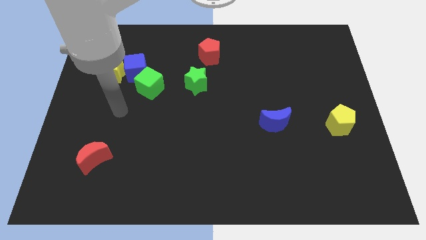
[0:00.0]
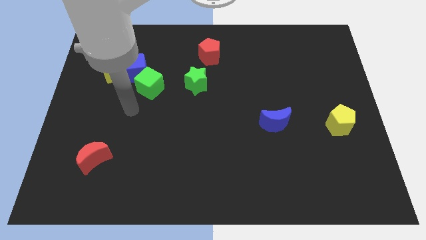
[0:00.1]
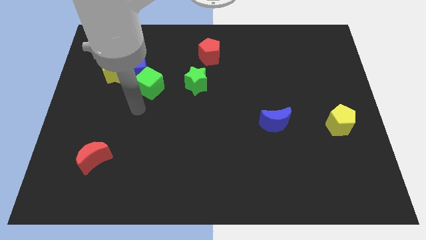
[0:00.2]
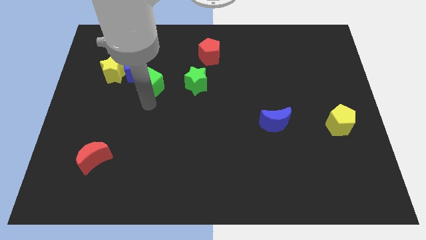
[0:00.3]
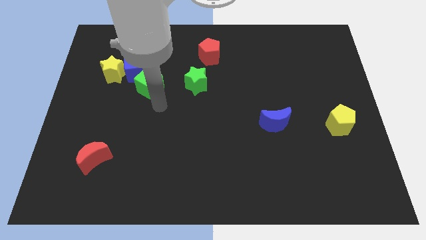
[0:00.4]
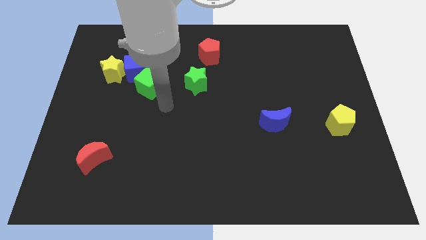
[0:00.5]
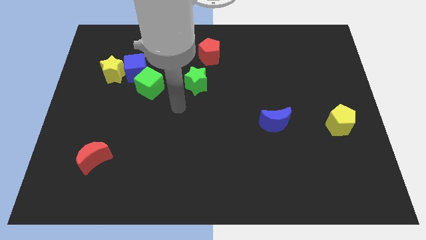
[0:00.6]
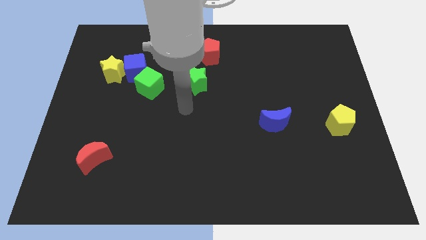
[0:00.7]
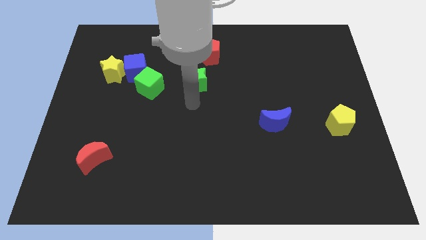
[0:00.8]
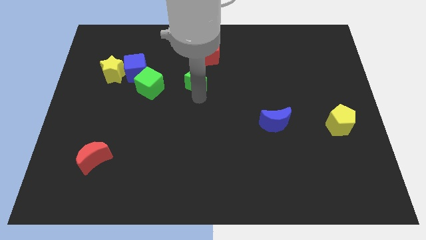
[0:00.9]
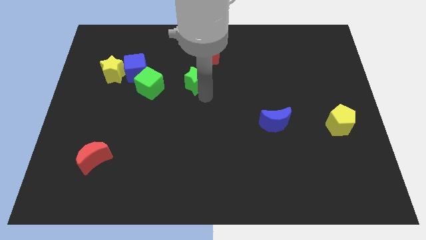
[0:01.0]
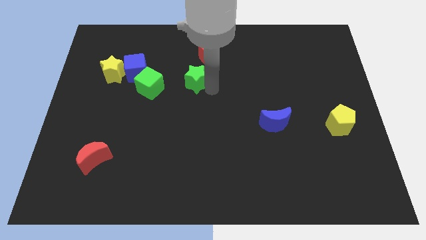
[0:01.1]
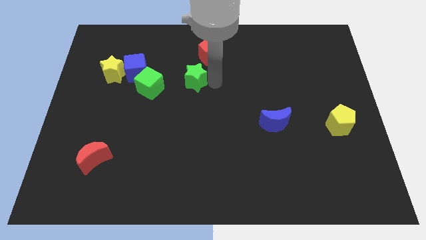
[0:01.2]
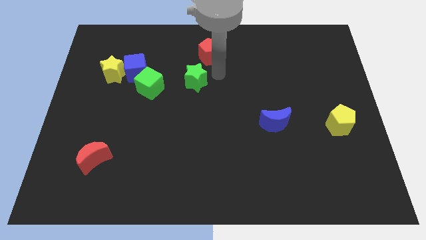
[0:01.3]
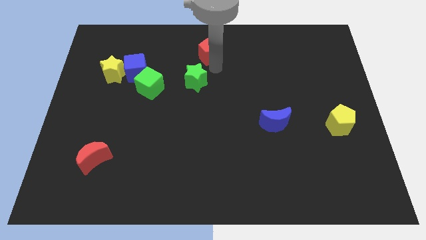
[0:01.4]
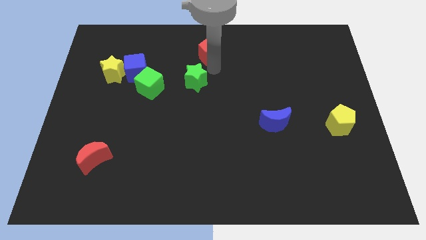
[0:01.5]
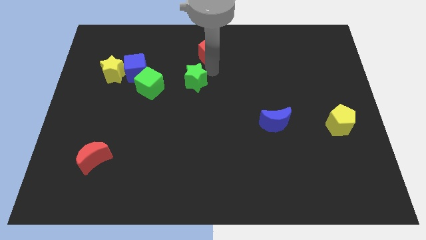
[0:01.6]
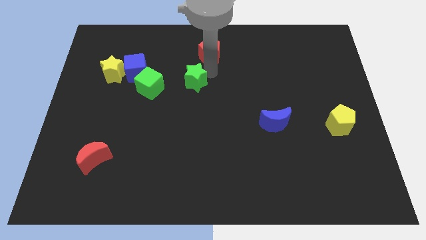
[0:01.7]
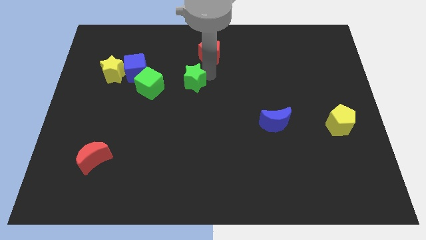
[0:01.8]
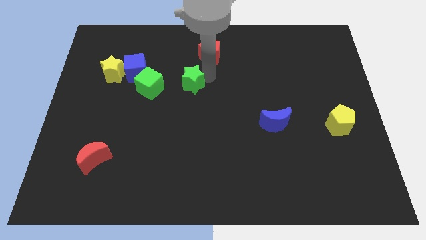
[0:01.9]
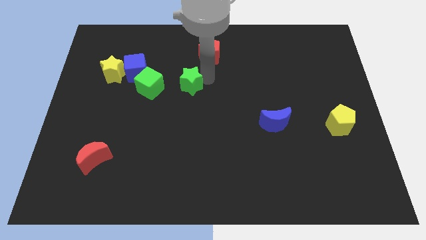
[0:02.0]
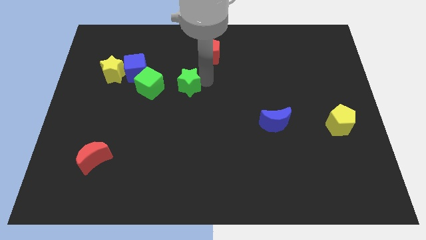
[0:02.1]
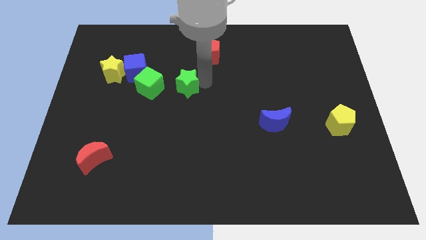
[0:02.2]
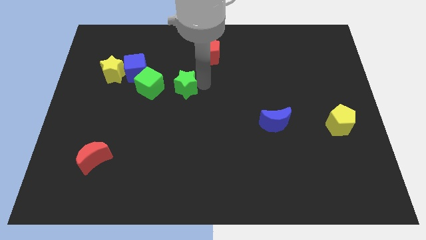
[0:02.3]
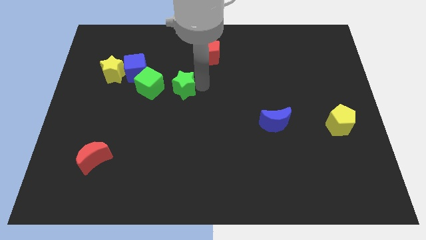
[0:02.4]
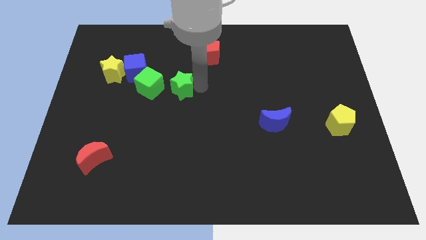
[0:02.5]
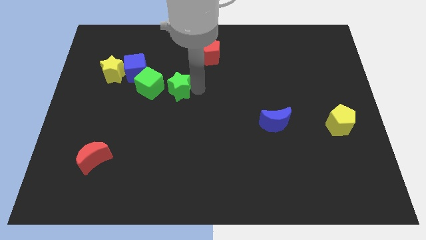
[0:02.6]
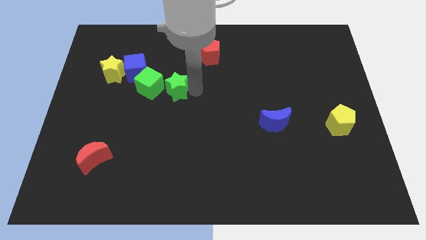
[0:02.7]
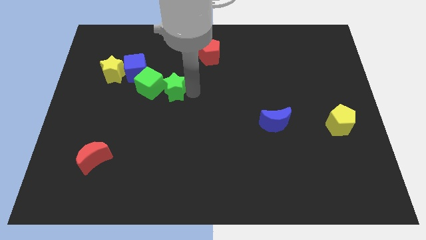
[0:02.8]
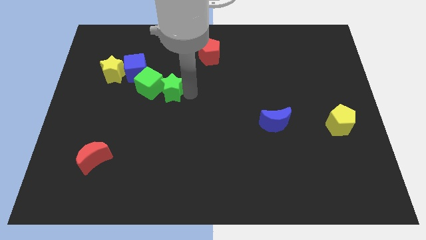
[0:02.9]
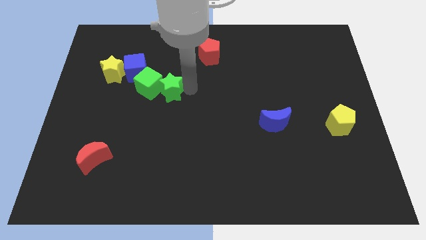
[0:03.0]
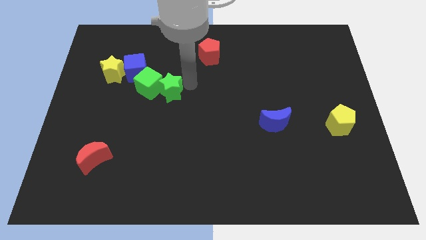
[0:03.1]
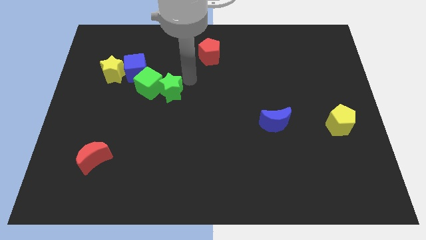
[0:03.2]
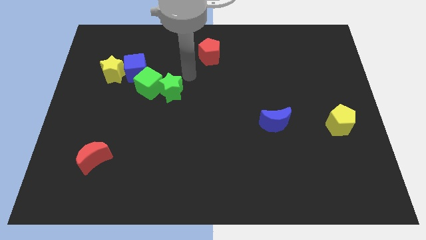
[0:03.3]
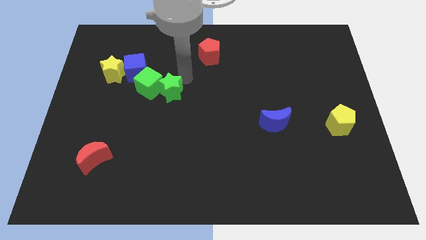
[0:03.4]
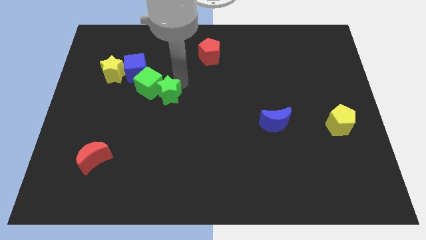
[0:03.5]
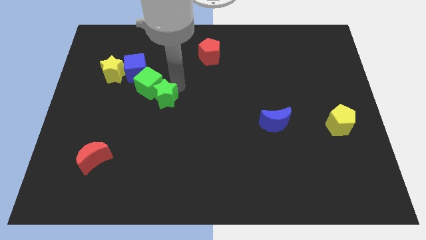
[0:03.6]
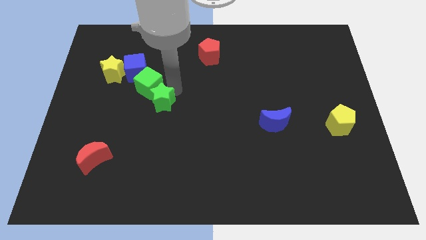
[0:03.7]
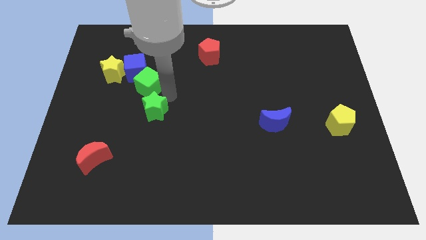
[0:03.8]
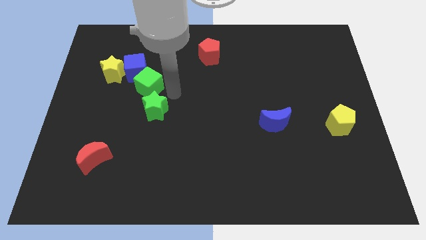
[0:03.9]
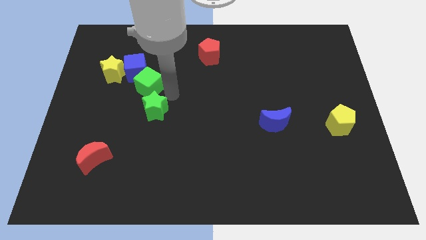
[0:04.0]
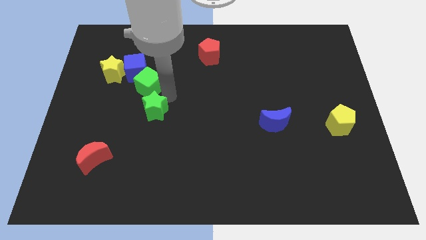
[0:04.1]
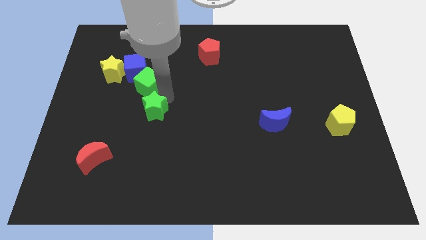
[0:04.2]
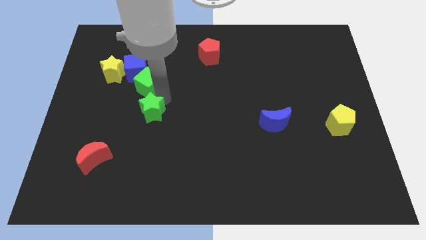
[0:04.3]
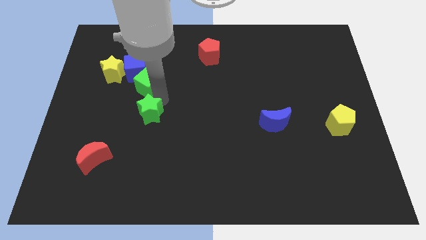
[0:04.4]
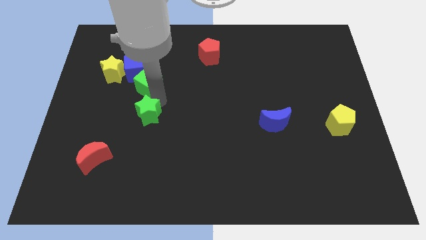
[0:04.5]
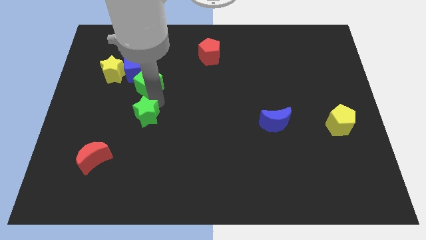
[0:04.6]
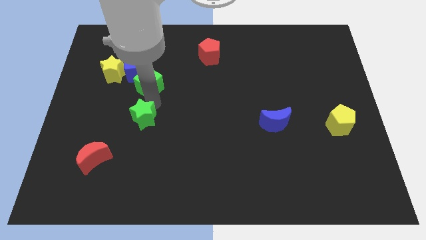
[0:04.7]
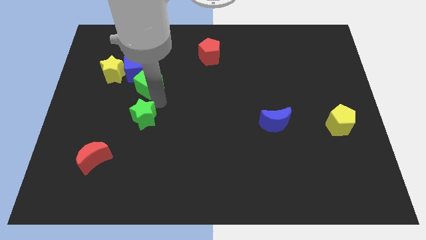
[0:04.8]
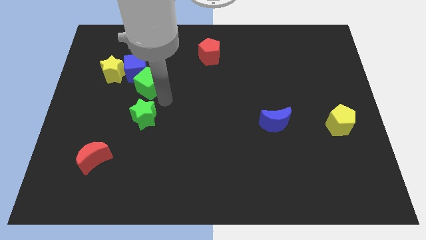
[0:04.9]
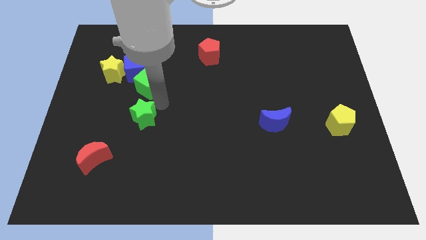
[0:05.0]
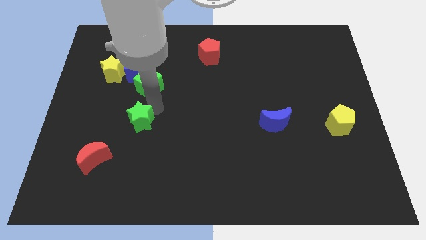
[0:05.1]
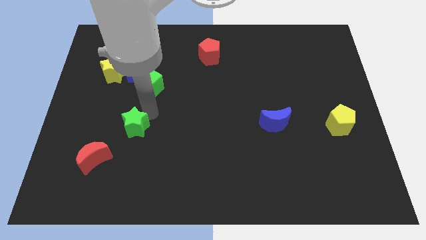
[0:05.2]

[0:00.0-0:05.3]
move the green star to the top right side of the red moon
